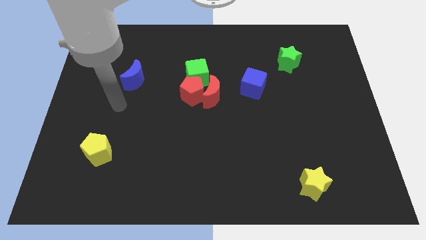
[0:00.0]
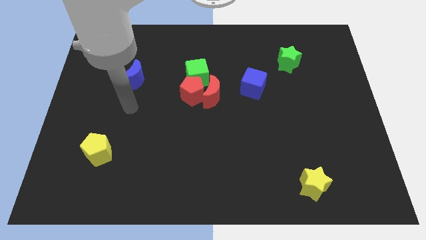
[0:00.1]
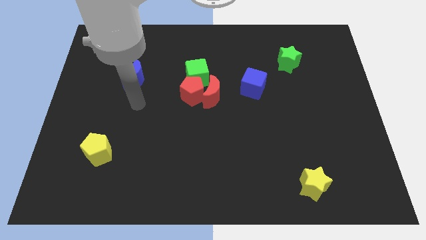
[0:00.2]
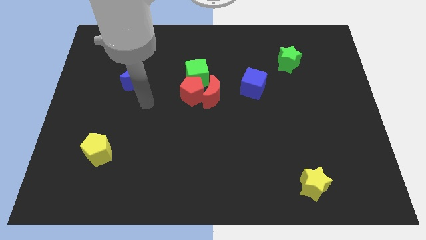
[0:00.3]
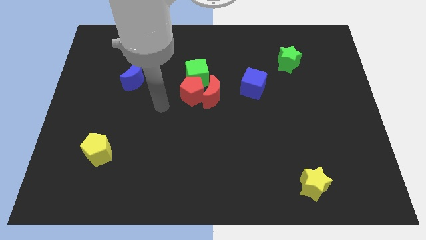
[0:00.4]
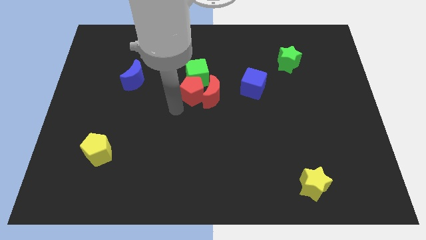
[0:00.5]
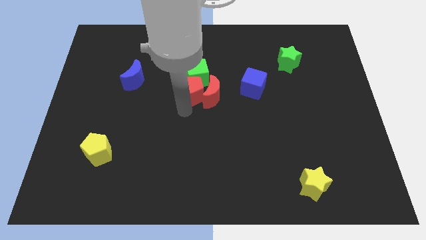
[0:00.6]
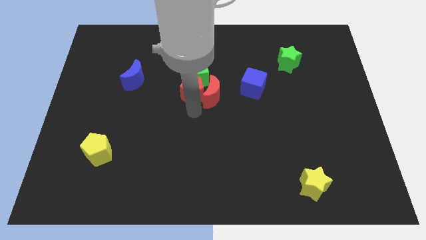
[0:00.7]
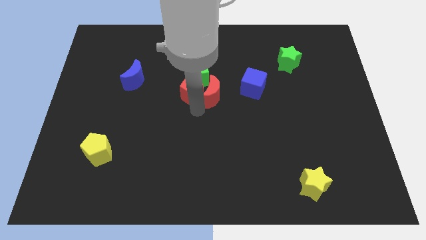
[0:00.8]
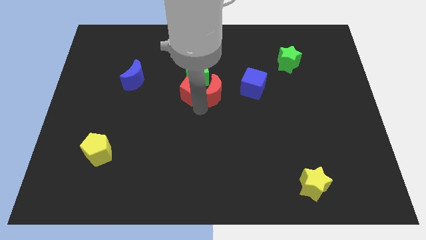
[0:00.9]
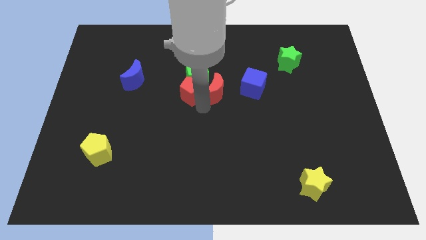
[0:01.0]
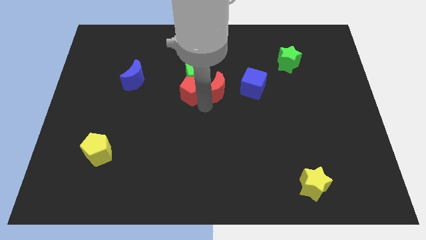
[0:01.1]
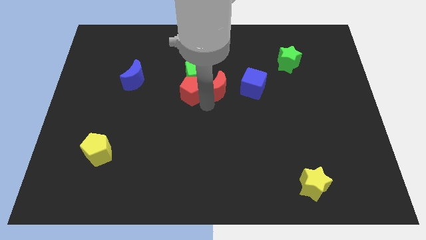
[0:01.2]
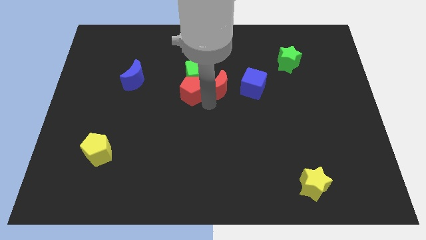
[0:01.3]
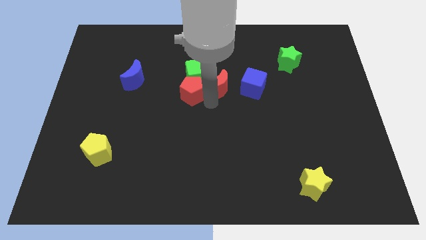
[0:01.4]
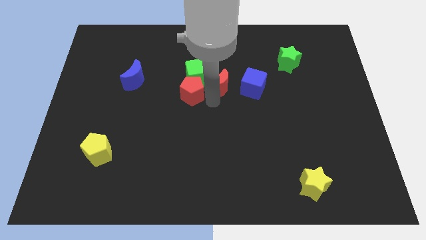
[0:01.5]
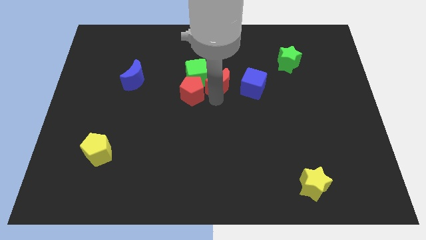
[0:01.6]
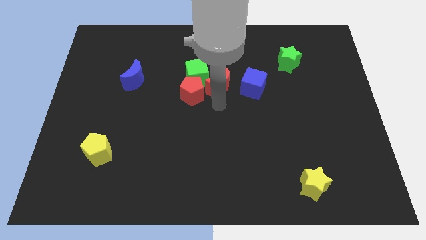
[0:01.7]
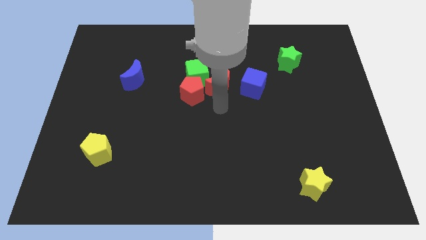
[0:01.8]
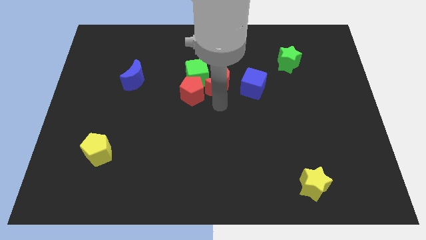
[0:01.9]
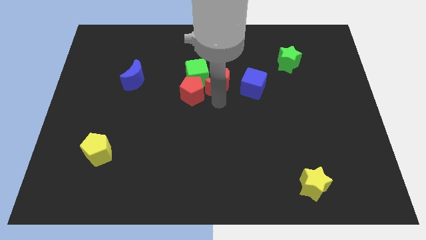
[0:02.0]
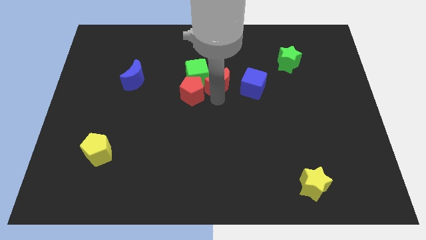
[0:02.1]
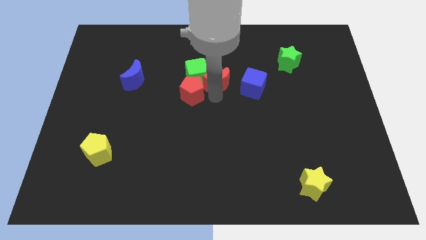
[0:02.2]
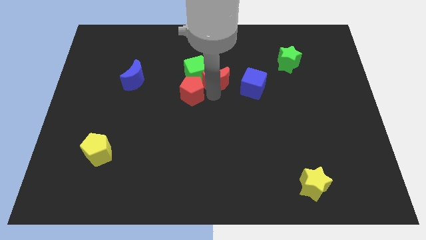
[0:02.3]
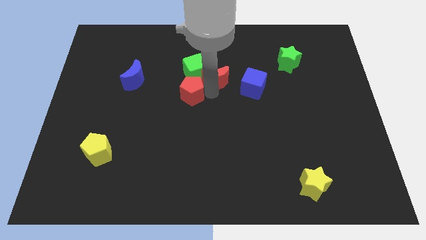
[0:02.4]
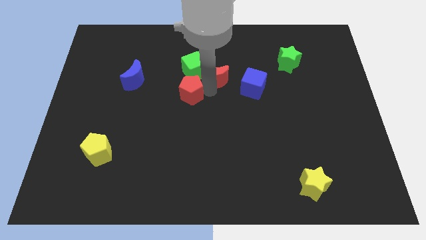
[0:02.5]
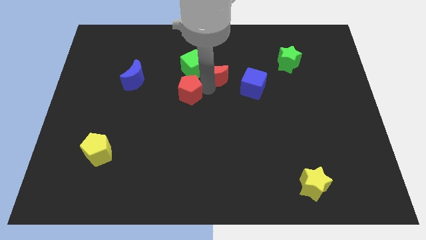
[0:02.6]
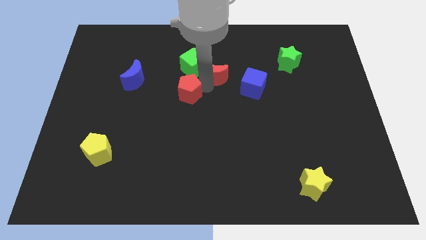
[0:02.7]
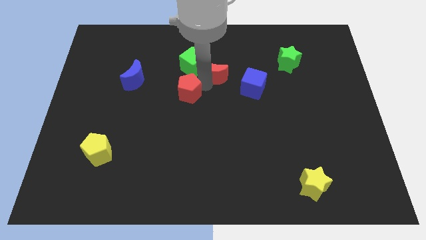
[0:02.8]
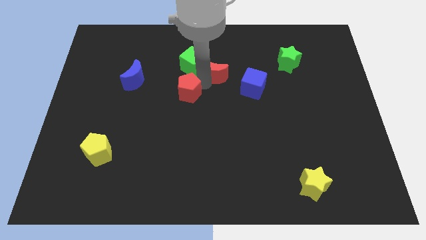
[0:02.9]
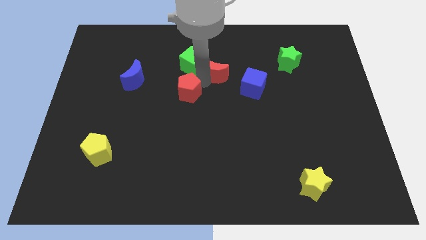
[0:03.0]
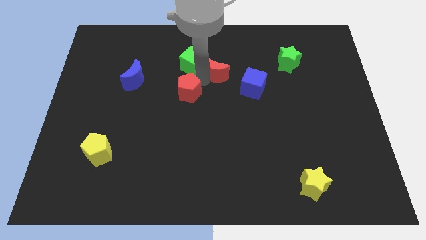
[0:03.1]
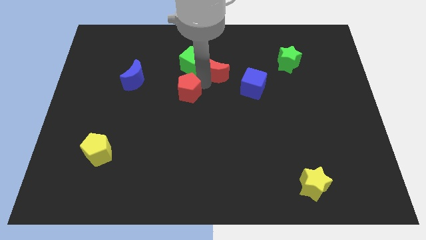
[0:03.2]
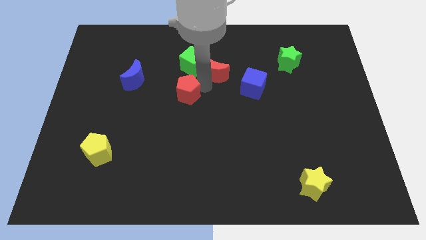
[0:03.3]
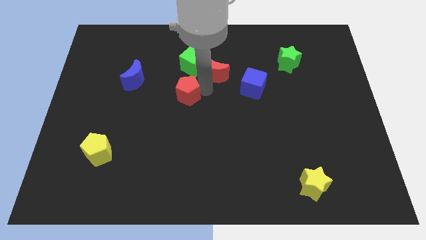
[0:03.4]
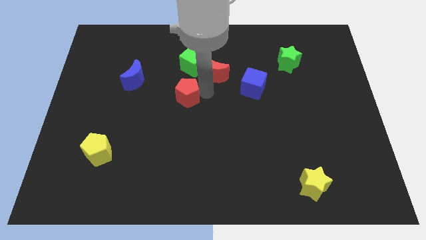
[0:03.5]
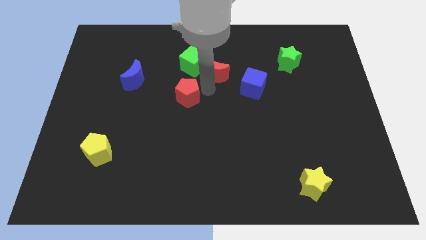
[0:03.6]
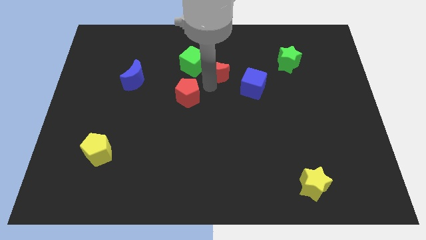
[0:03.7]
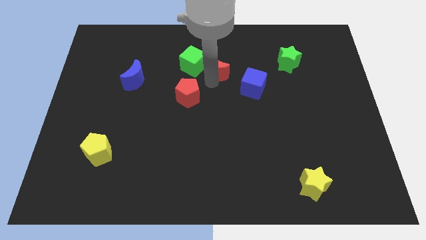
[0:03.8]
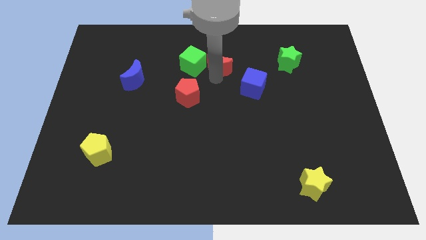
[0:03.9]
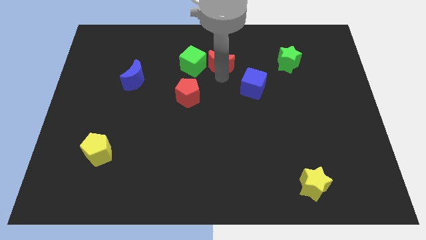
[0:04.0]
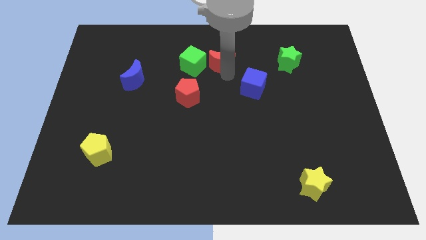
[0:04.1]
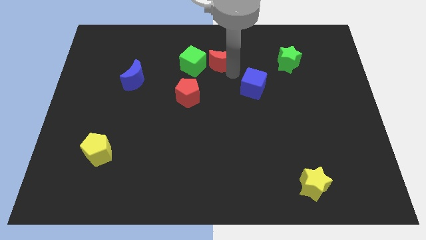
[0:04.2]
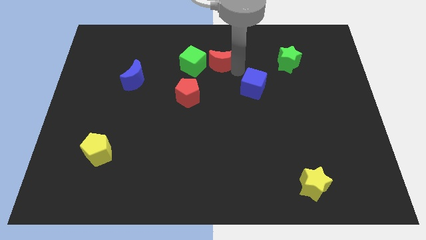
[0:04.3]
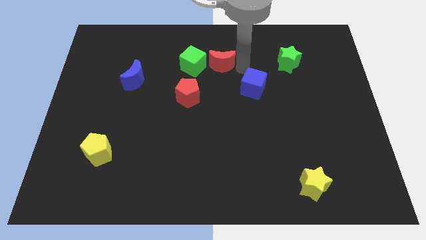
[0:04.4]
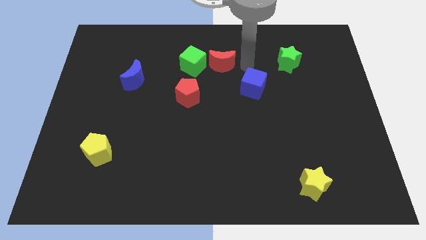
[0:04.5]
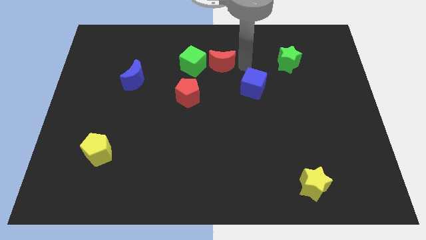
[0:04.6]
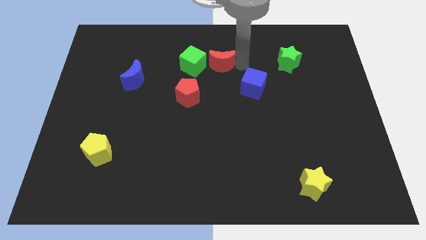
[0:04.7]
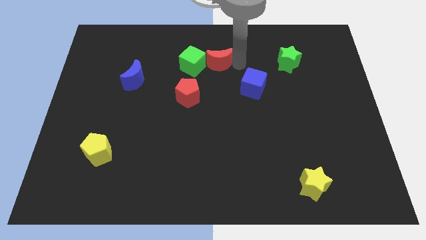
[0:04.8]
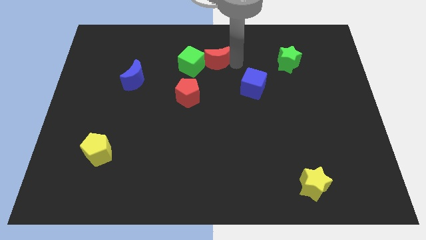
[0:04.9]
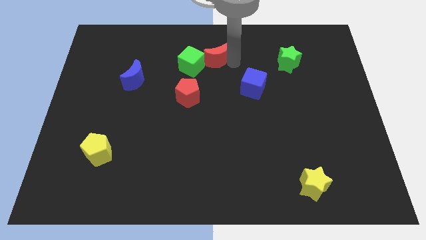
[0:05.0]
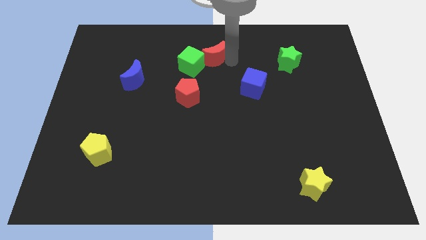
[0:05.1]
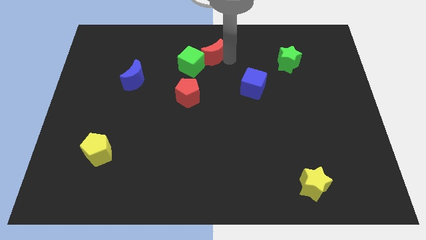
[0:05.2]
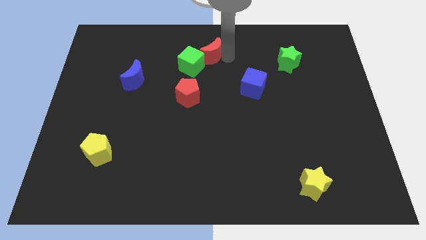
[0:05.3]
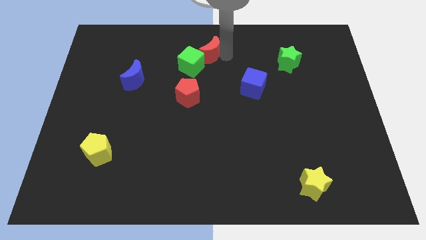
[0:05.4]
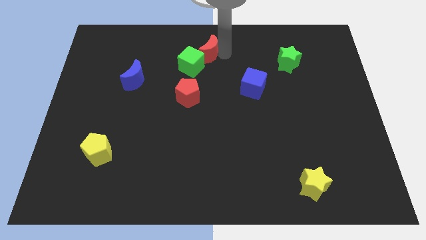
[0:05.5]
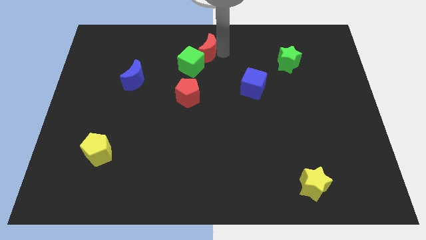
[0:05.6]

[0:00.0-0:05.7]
slightly push the red moon up and left diagonally

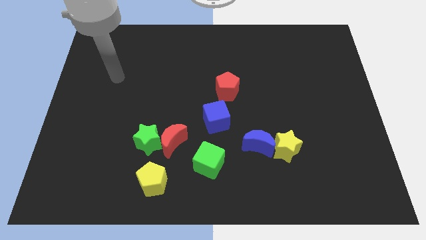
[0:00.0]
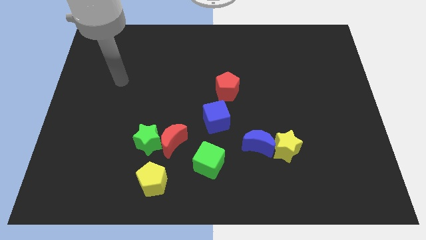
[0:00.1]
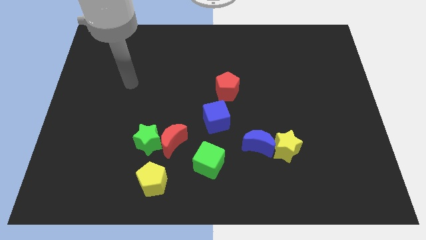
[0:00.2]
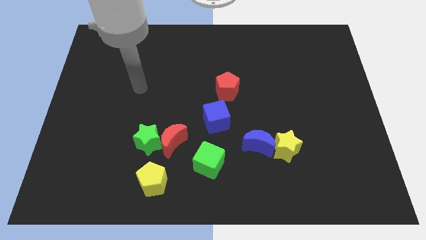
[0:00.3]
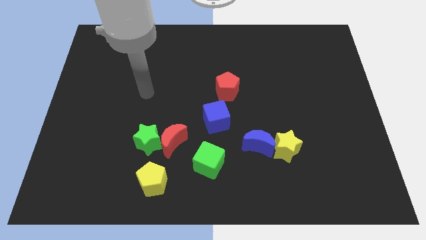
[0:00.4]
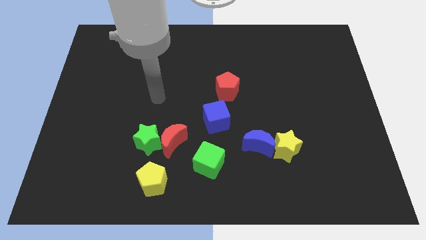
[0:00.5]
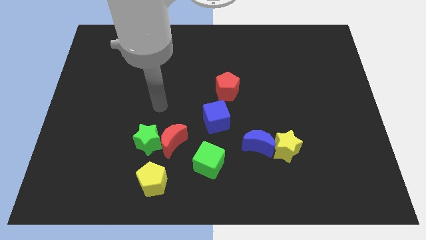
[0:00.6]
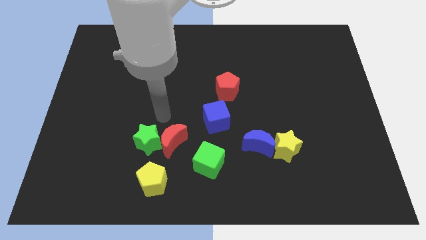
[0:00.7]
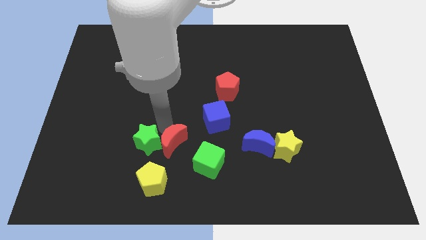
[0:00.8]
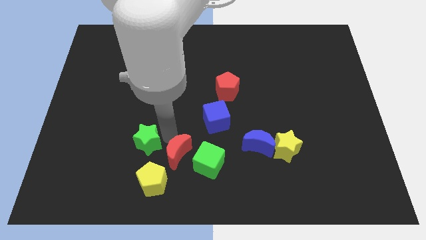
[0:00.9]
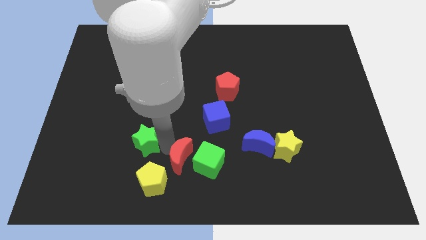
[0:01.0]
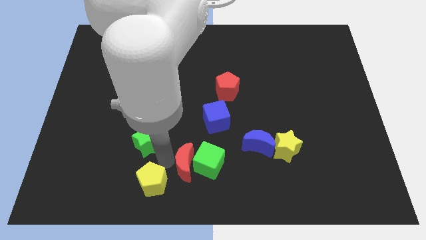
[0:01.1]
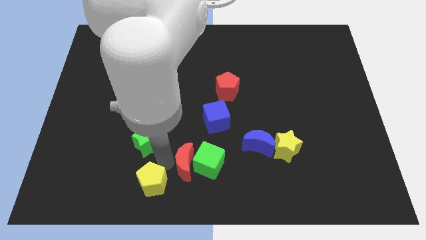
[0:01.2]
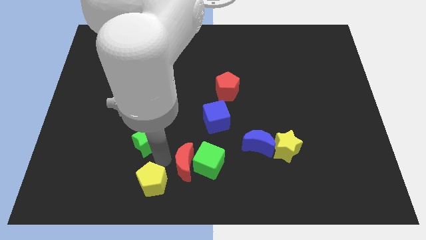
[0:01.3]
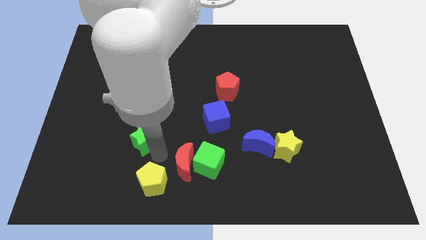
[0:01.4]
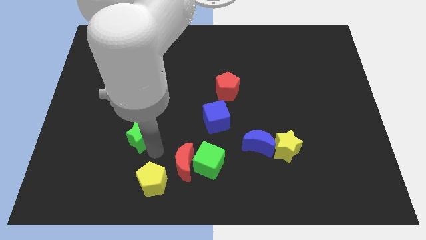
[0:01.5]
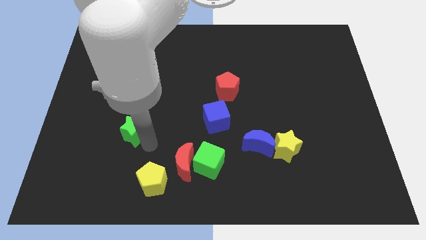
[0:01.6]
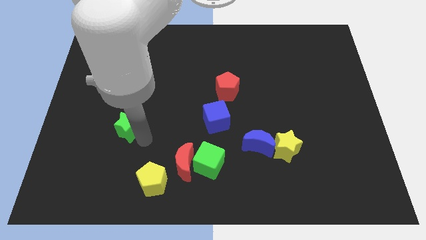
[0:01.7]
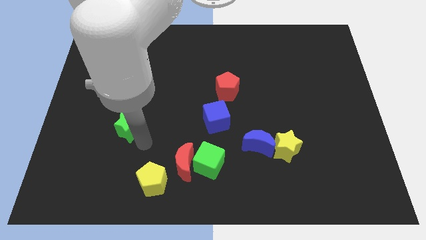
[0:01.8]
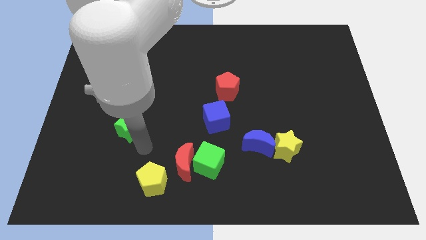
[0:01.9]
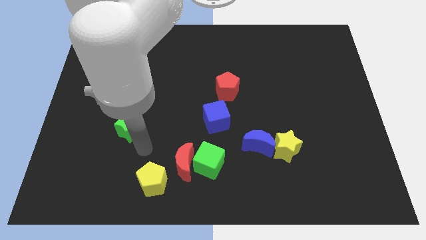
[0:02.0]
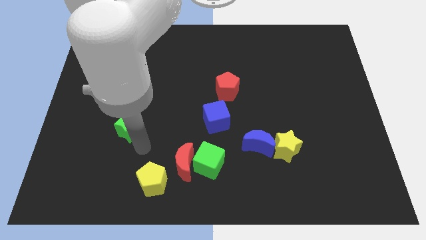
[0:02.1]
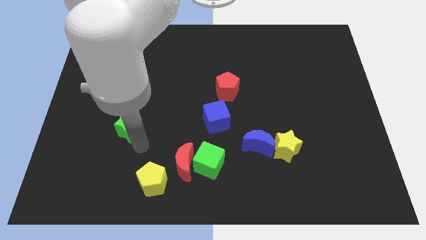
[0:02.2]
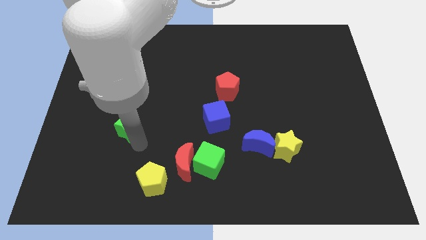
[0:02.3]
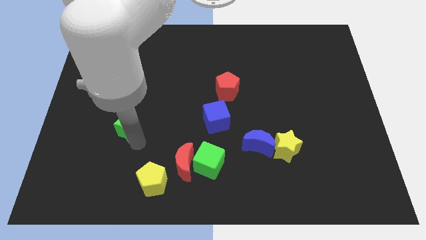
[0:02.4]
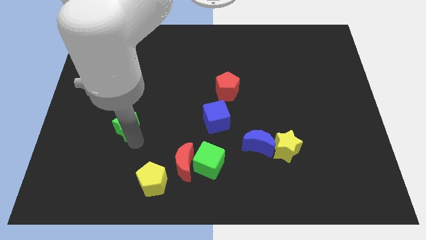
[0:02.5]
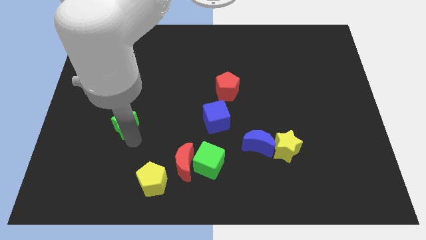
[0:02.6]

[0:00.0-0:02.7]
slightly move the green star upwards and to the left diagonally
